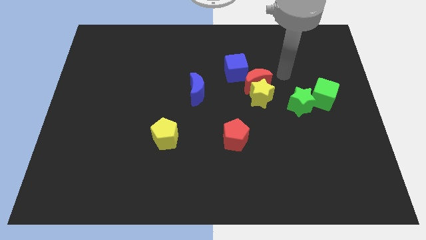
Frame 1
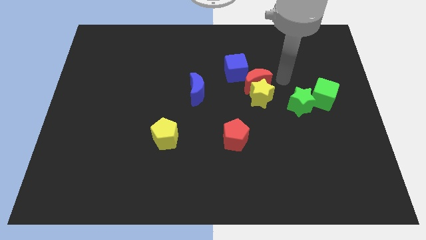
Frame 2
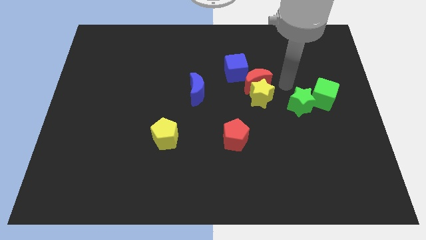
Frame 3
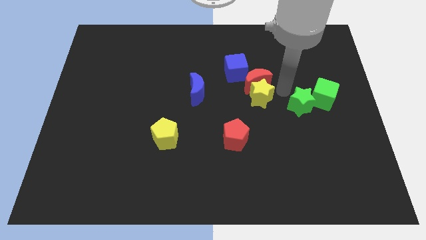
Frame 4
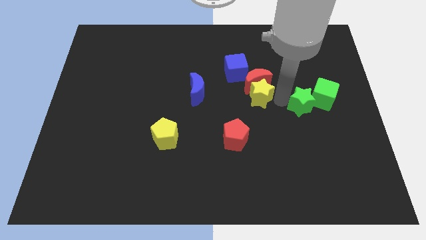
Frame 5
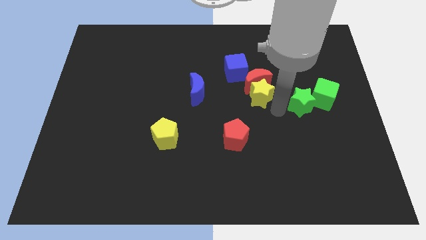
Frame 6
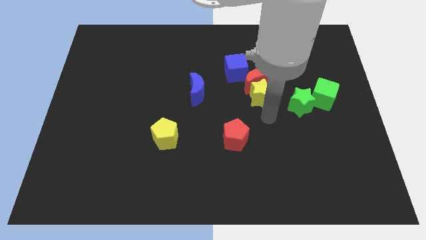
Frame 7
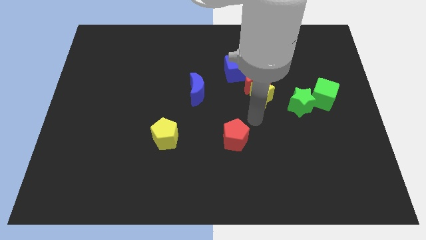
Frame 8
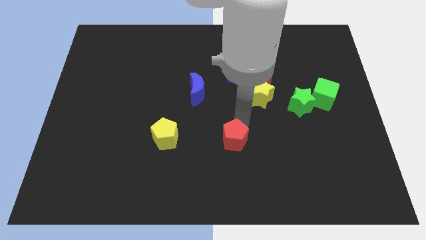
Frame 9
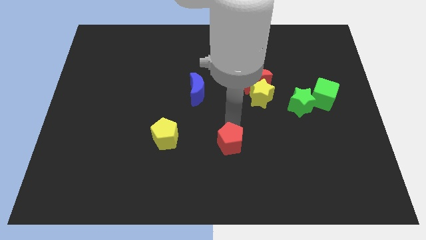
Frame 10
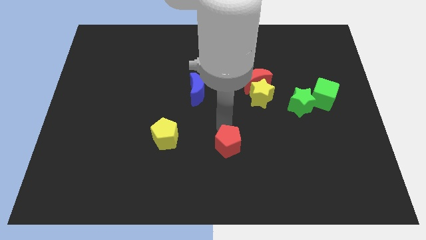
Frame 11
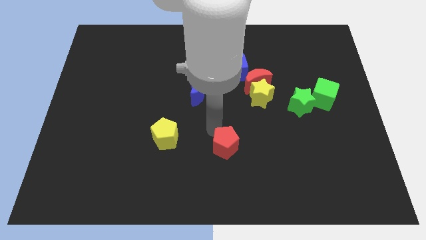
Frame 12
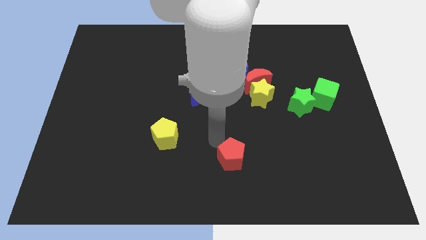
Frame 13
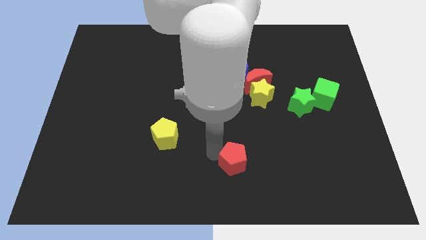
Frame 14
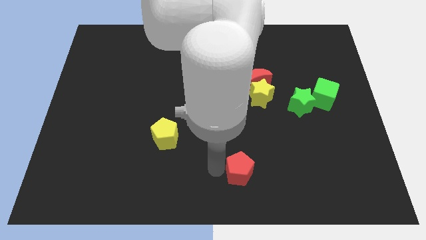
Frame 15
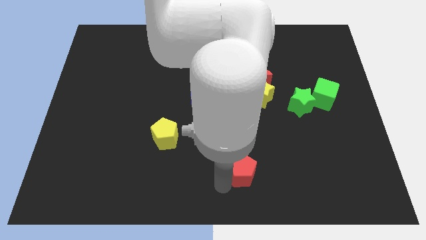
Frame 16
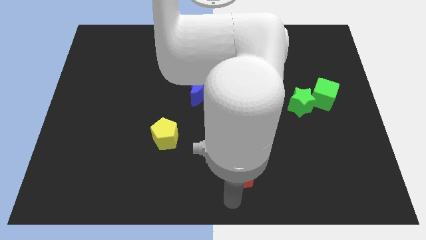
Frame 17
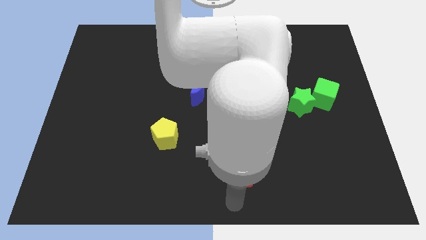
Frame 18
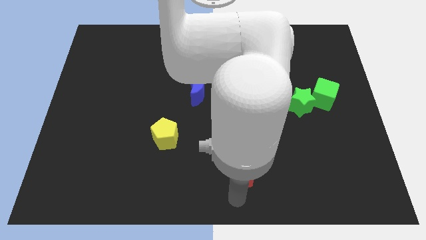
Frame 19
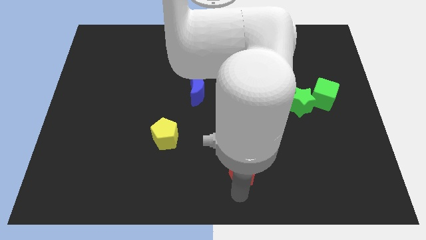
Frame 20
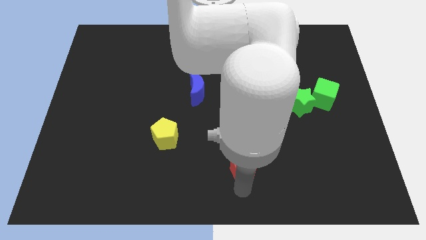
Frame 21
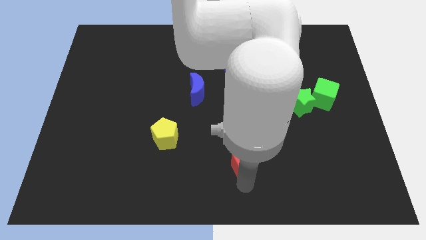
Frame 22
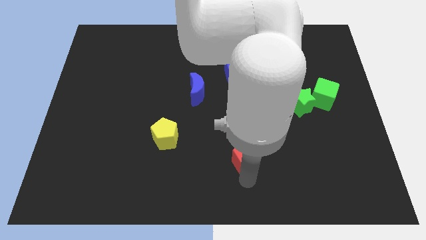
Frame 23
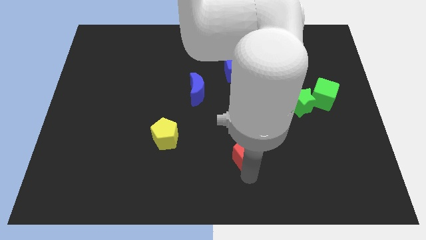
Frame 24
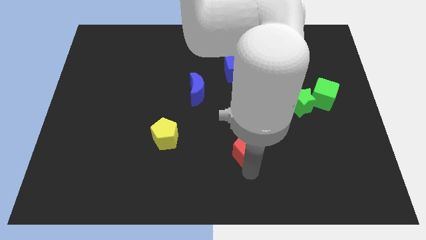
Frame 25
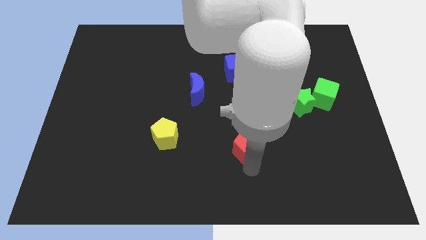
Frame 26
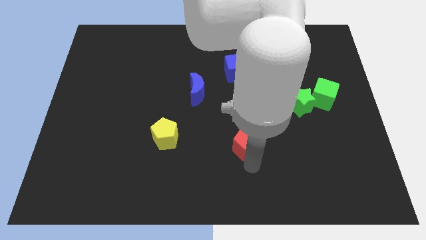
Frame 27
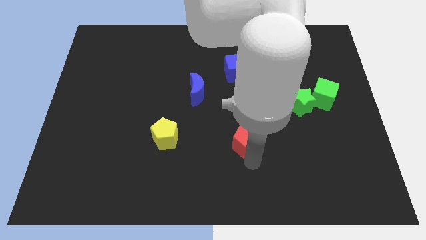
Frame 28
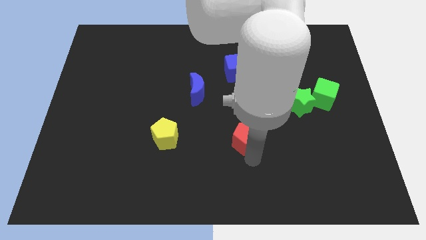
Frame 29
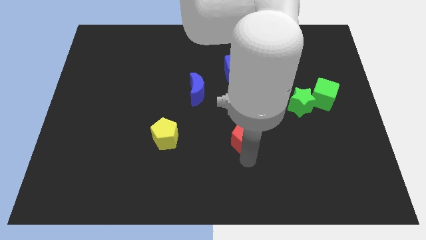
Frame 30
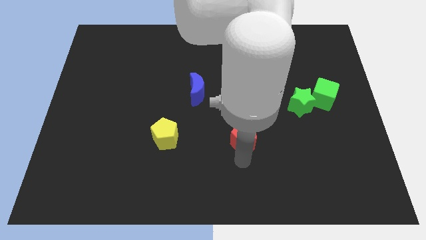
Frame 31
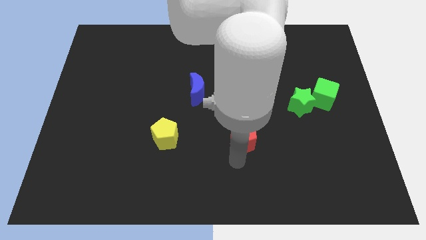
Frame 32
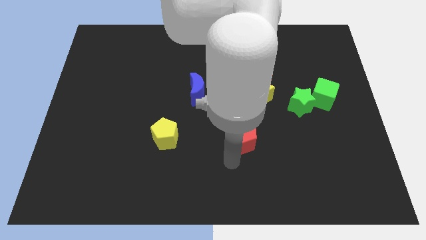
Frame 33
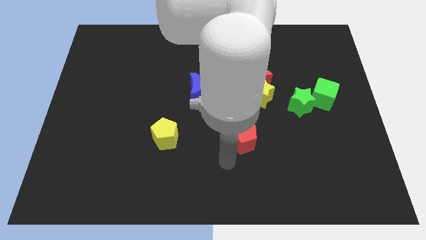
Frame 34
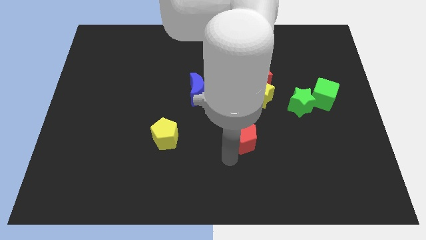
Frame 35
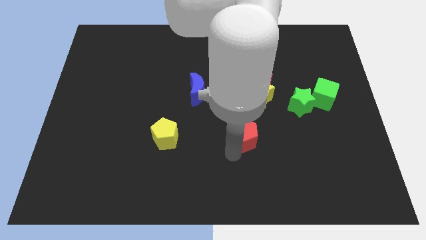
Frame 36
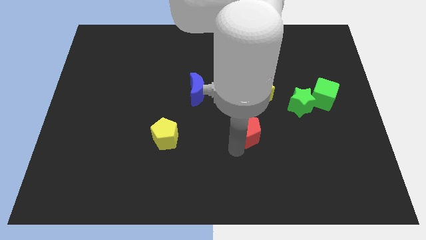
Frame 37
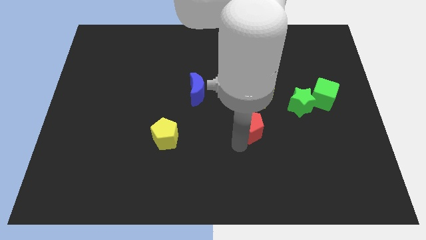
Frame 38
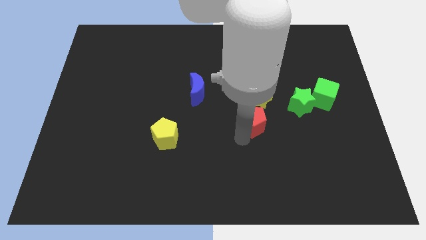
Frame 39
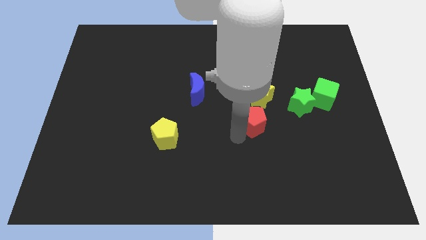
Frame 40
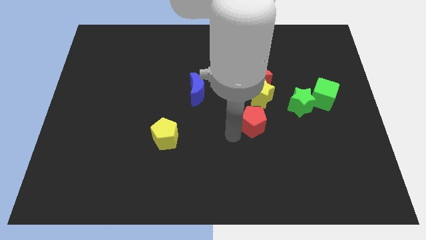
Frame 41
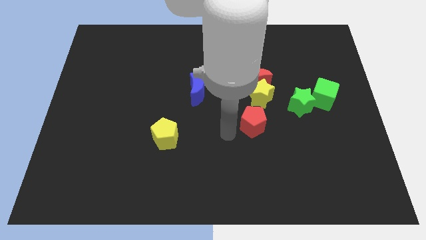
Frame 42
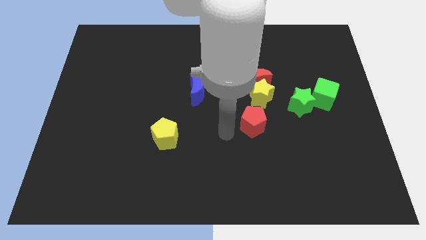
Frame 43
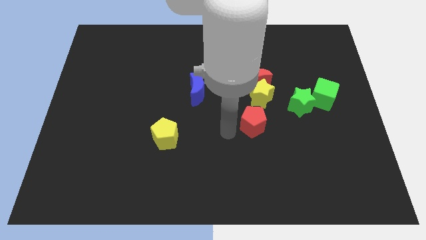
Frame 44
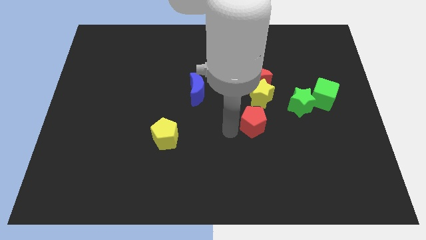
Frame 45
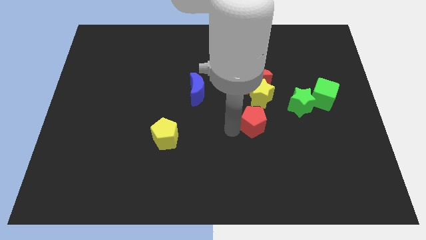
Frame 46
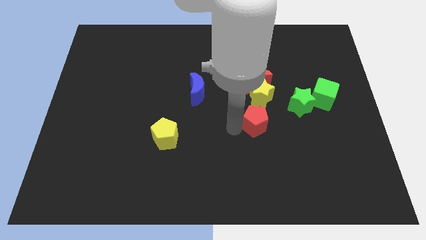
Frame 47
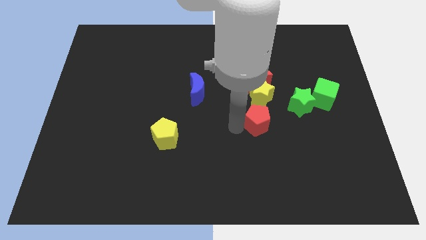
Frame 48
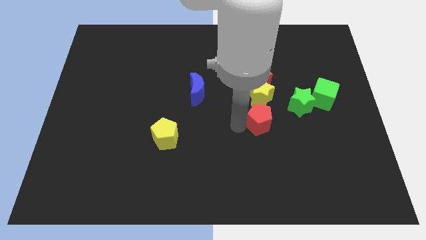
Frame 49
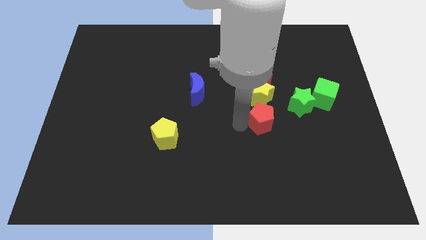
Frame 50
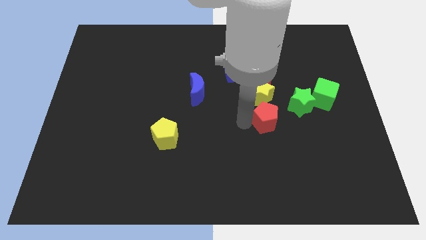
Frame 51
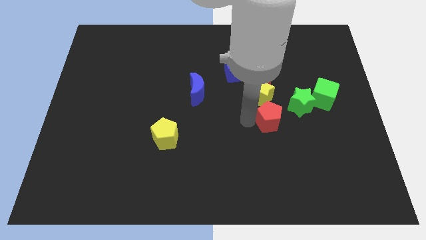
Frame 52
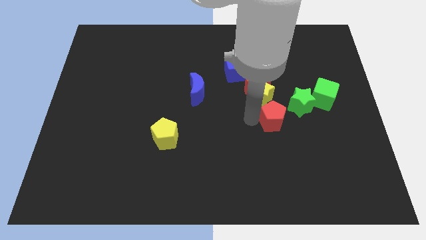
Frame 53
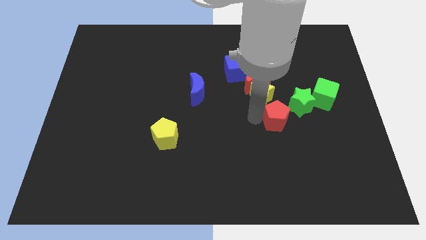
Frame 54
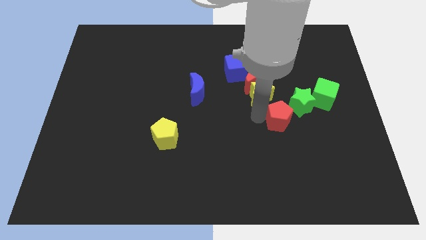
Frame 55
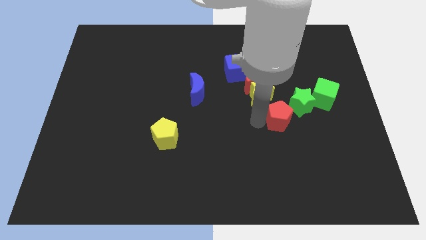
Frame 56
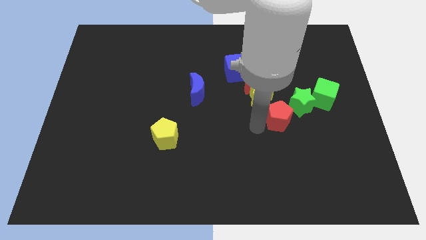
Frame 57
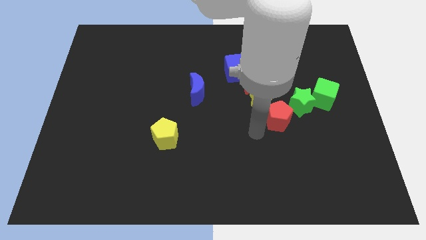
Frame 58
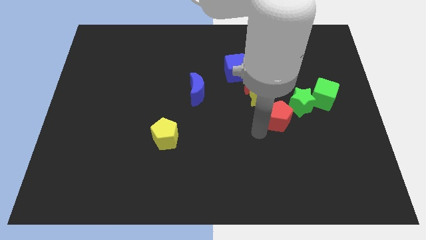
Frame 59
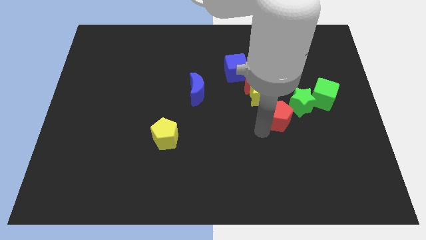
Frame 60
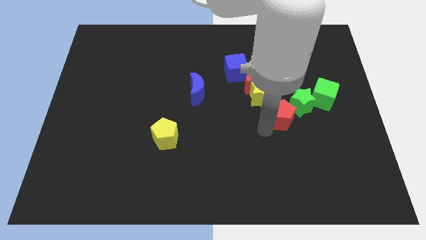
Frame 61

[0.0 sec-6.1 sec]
slide the red pentagon close to the green star

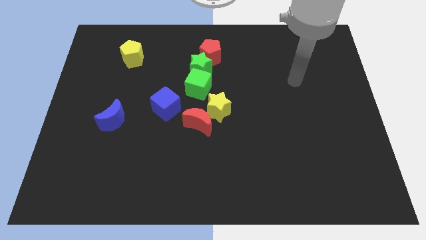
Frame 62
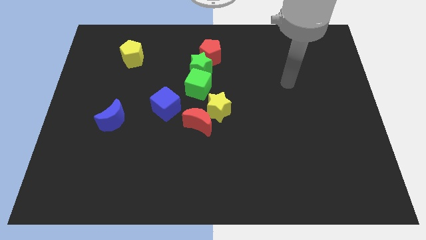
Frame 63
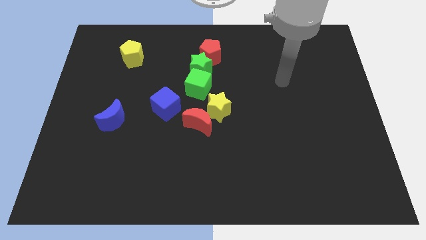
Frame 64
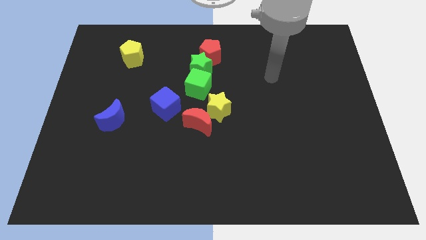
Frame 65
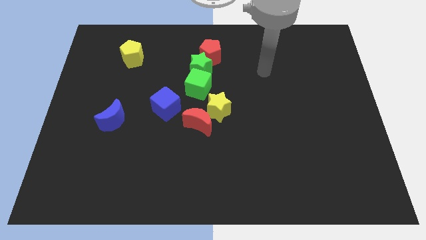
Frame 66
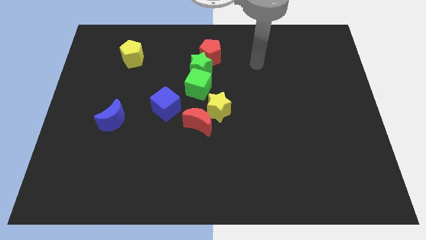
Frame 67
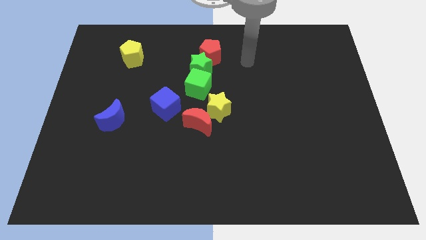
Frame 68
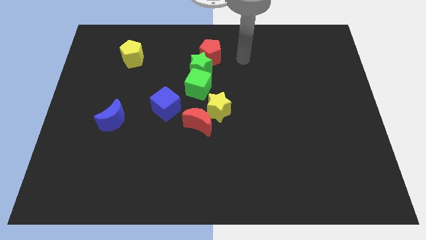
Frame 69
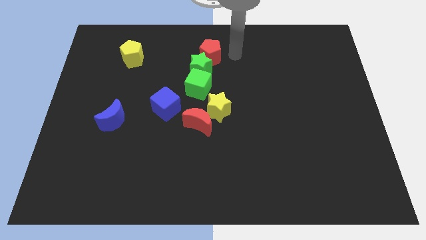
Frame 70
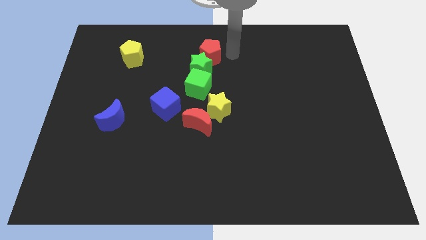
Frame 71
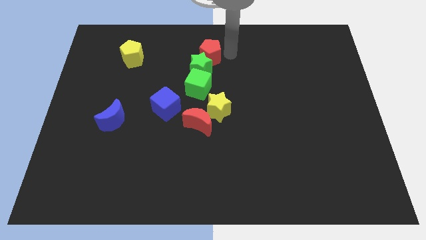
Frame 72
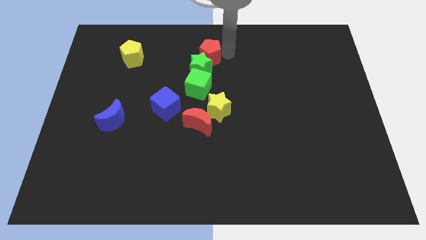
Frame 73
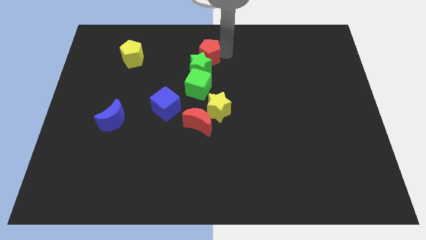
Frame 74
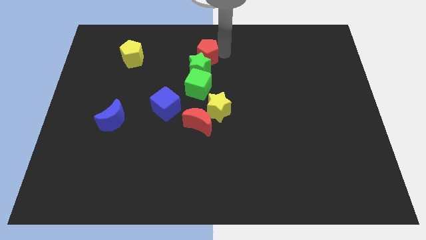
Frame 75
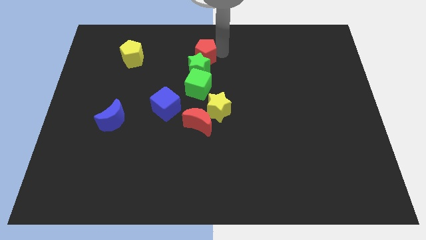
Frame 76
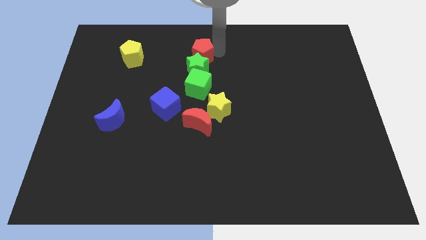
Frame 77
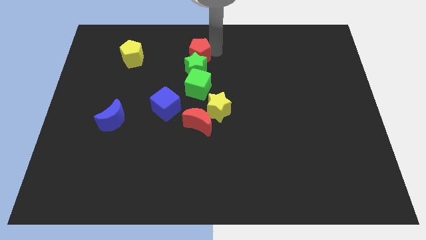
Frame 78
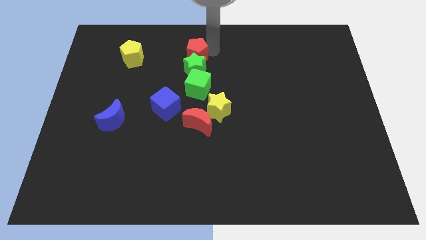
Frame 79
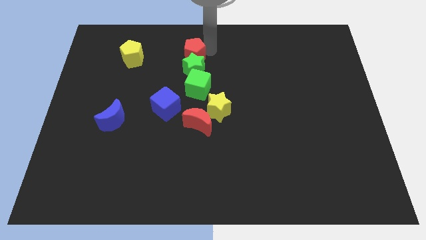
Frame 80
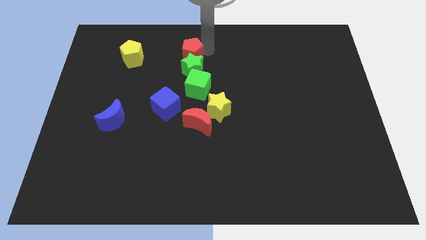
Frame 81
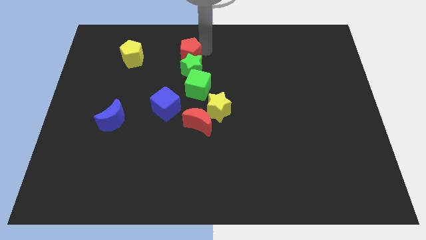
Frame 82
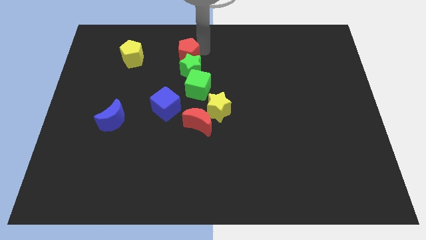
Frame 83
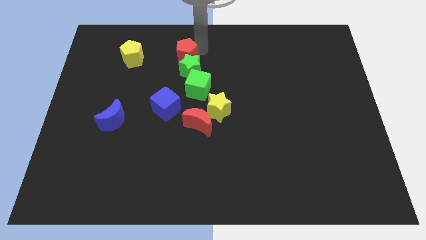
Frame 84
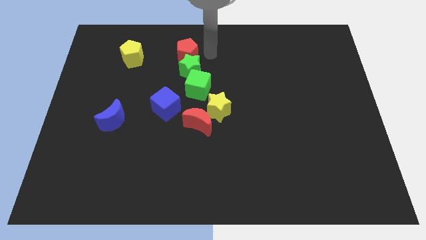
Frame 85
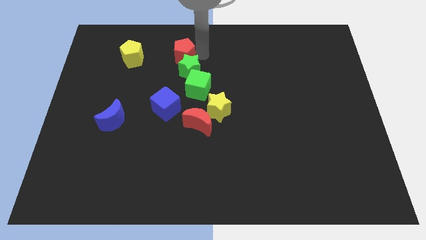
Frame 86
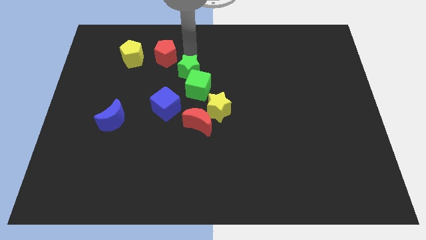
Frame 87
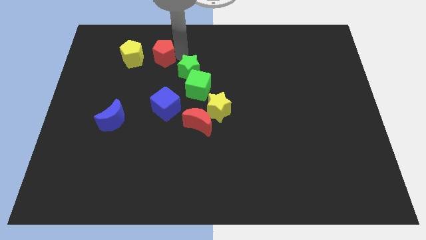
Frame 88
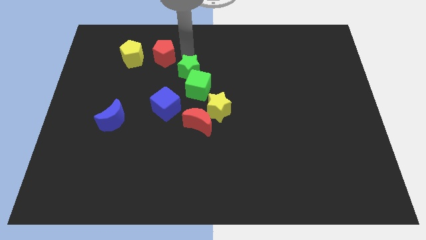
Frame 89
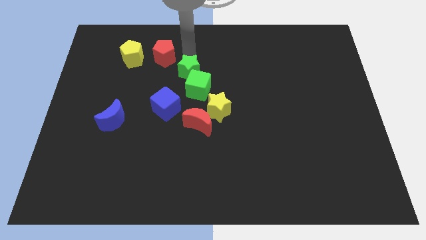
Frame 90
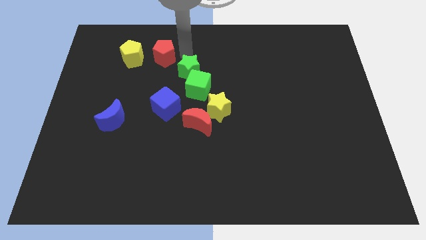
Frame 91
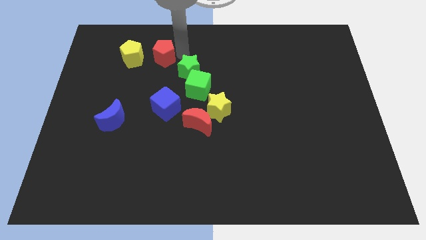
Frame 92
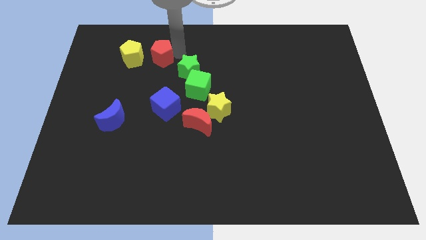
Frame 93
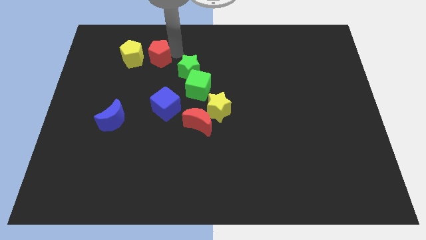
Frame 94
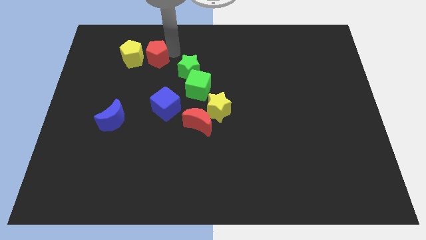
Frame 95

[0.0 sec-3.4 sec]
put the red pentagon to the yellow pentagon
